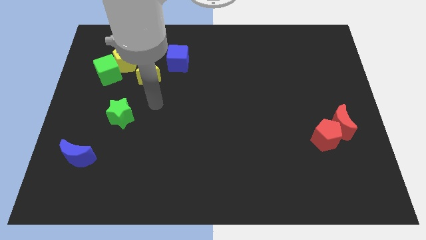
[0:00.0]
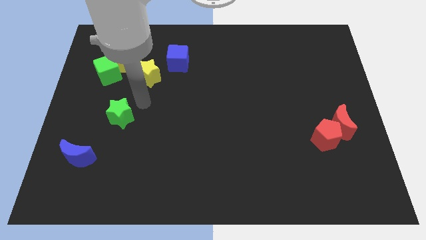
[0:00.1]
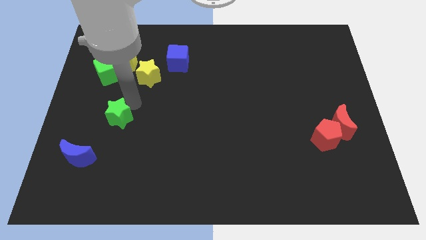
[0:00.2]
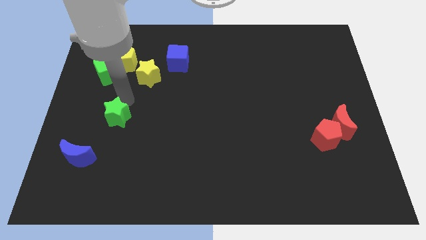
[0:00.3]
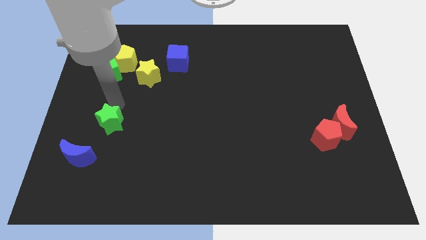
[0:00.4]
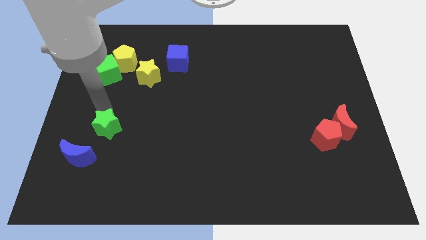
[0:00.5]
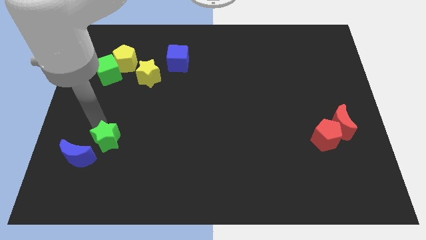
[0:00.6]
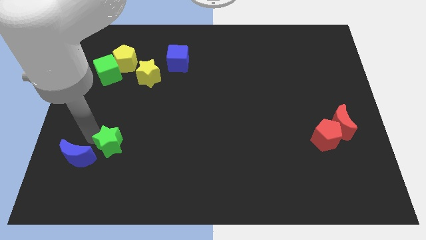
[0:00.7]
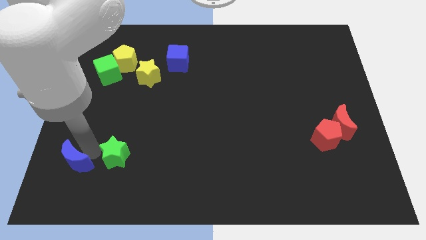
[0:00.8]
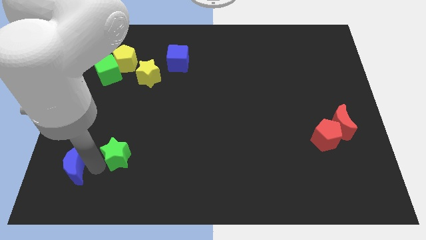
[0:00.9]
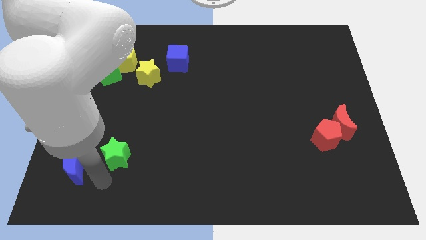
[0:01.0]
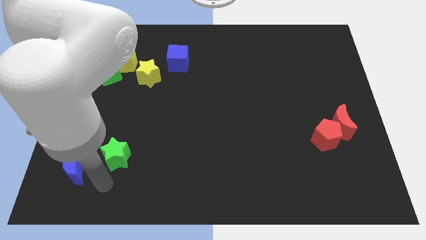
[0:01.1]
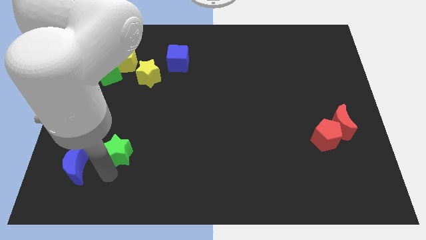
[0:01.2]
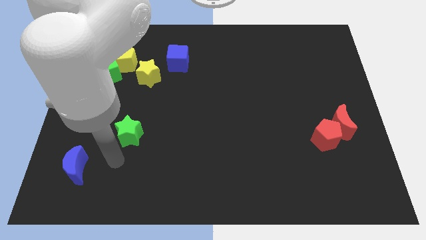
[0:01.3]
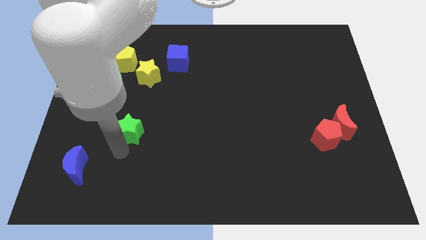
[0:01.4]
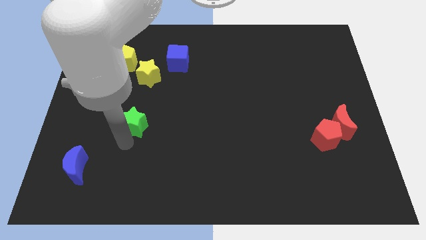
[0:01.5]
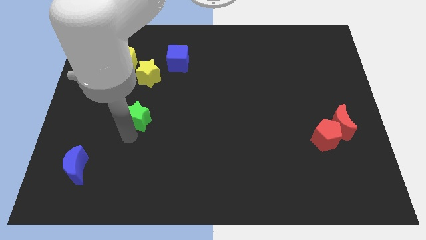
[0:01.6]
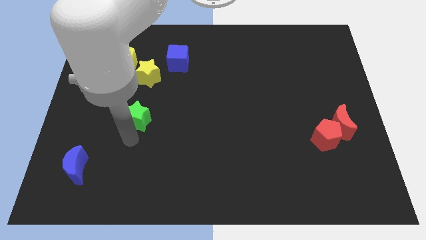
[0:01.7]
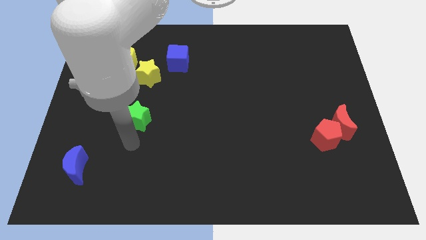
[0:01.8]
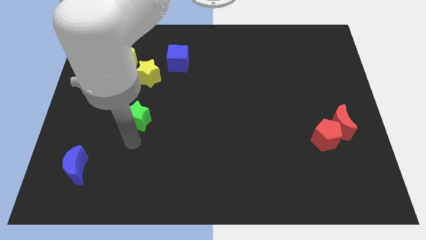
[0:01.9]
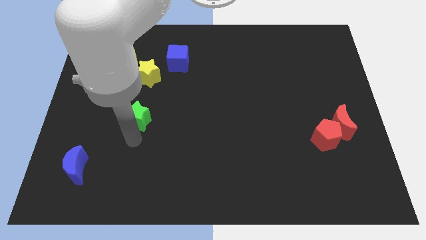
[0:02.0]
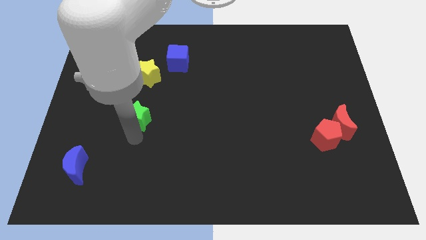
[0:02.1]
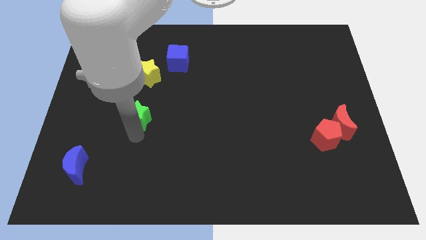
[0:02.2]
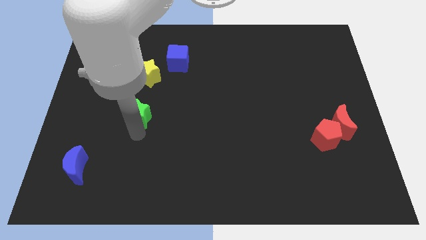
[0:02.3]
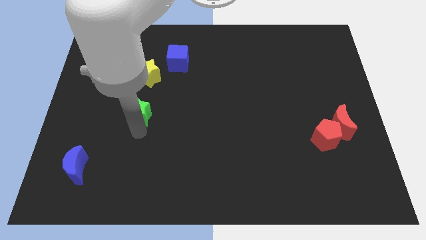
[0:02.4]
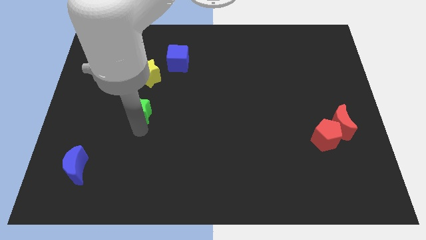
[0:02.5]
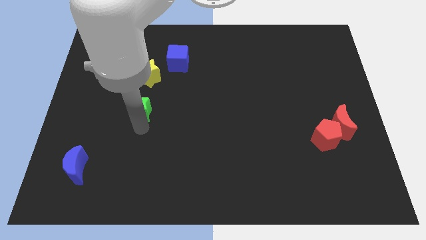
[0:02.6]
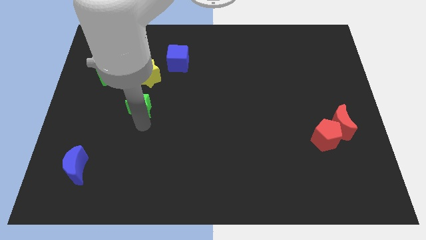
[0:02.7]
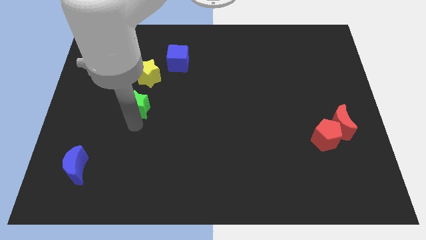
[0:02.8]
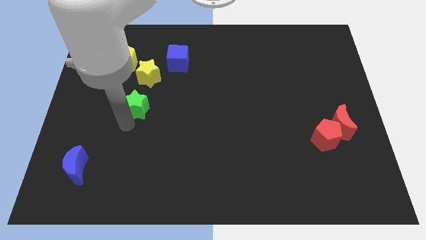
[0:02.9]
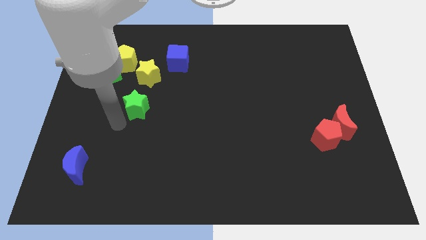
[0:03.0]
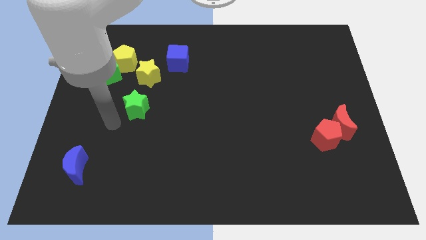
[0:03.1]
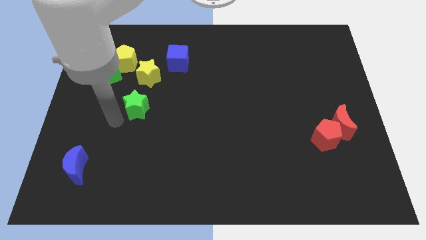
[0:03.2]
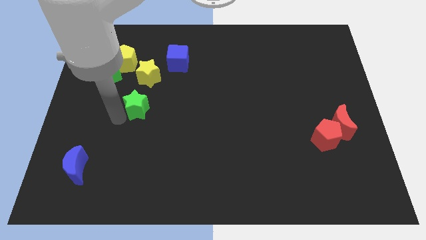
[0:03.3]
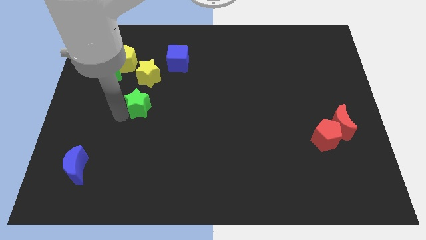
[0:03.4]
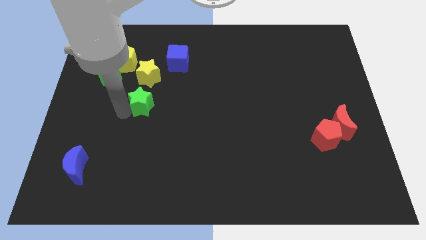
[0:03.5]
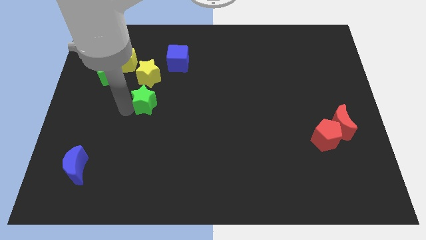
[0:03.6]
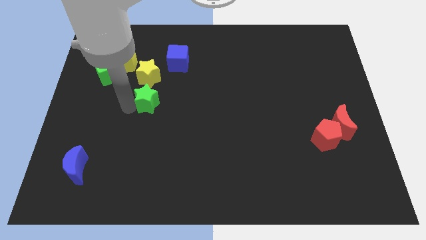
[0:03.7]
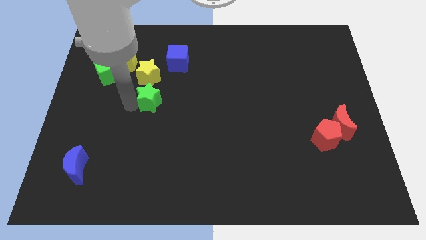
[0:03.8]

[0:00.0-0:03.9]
push the green star diagonally upwards and right a little

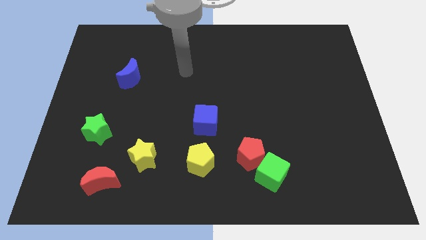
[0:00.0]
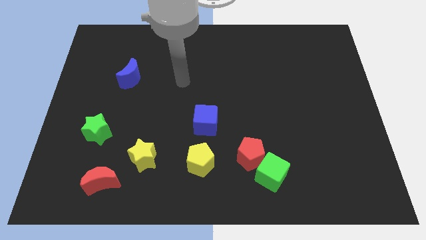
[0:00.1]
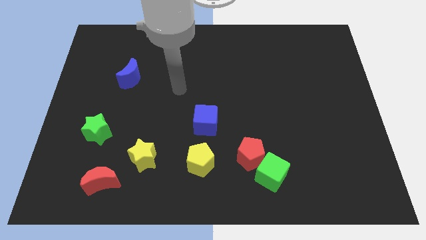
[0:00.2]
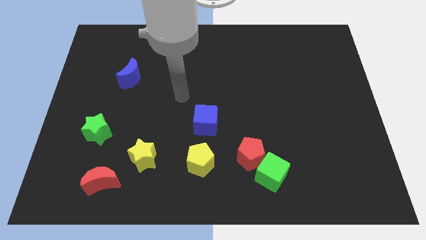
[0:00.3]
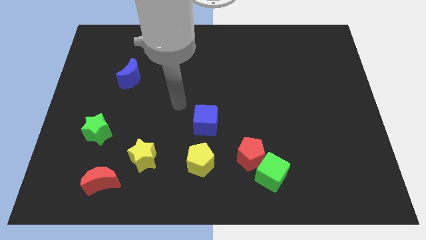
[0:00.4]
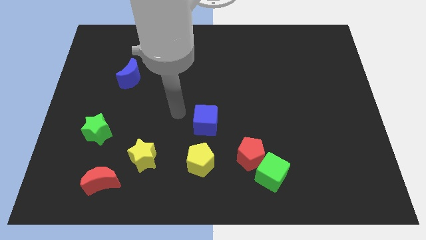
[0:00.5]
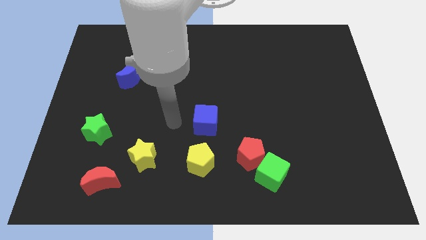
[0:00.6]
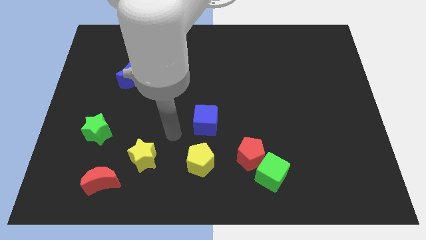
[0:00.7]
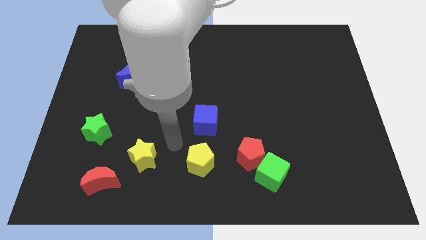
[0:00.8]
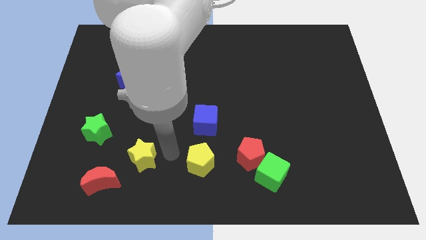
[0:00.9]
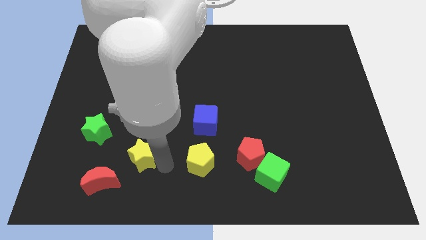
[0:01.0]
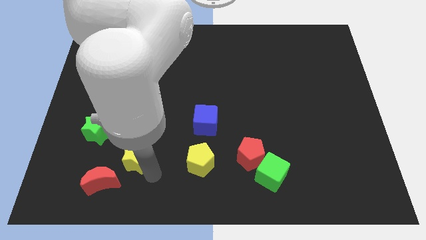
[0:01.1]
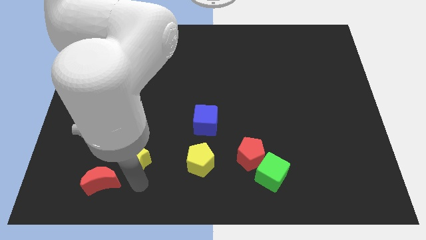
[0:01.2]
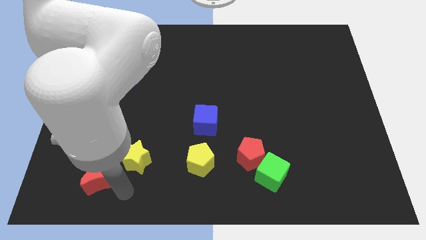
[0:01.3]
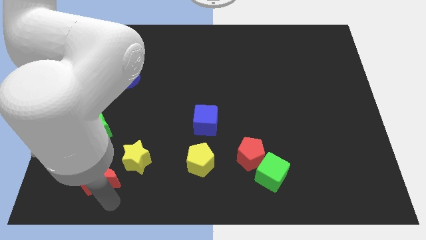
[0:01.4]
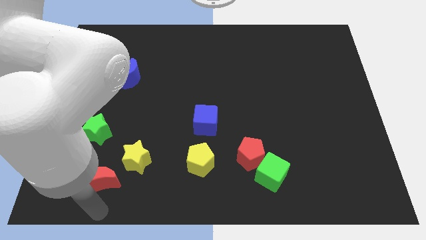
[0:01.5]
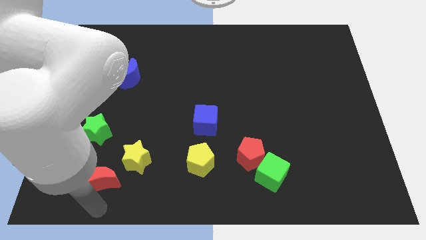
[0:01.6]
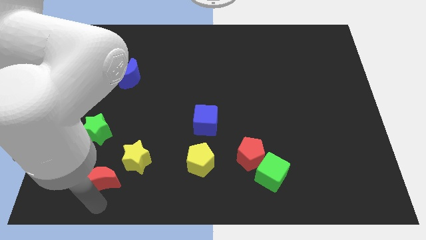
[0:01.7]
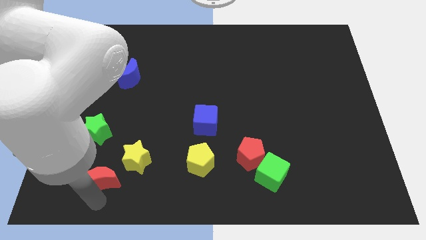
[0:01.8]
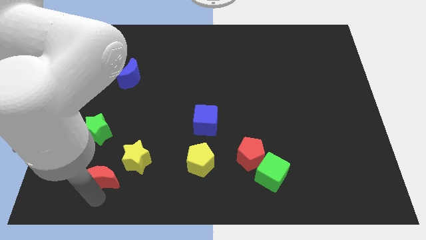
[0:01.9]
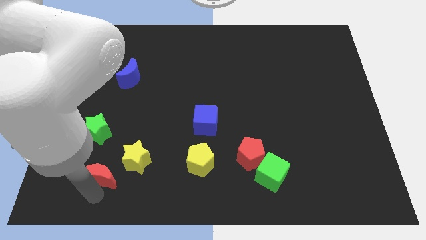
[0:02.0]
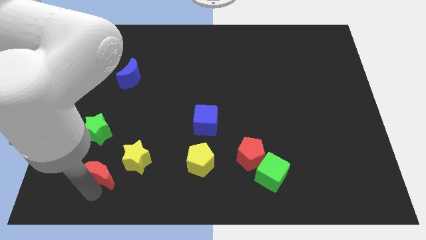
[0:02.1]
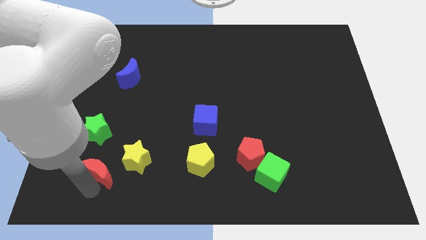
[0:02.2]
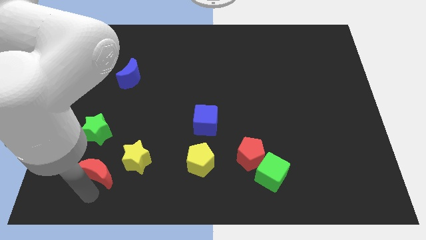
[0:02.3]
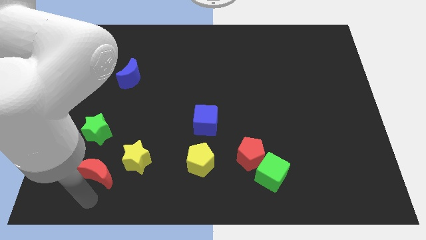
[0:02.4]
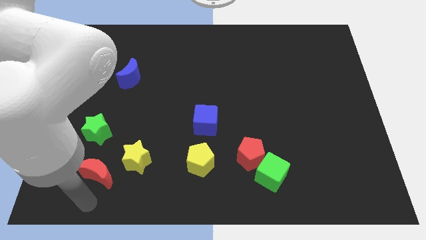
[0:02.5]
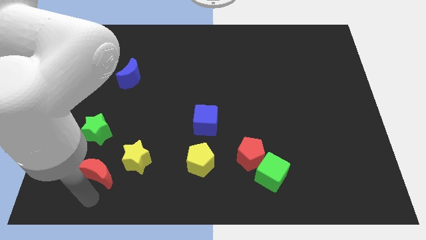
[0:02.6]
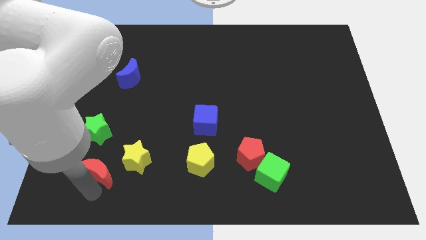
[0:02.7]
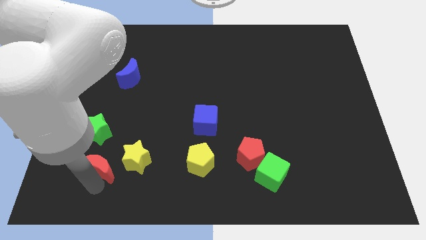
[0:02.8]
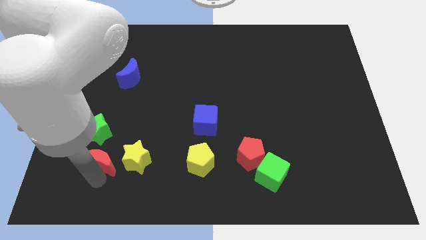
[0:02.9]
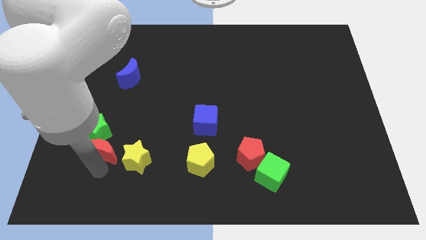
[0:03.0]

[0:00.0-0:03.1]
push the red moon slightly up

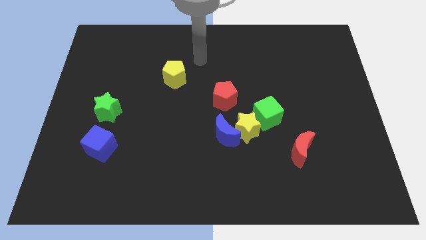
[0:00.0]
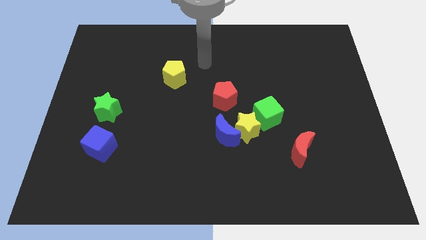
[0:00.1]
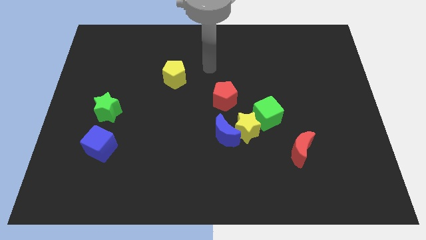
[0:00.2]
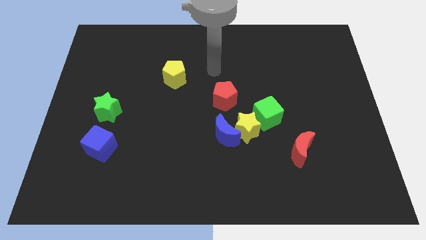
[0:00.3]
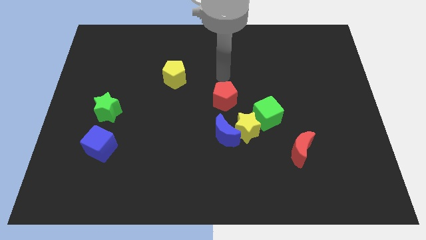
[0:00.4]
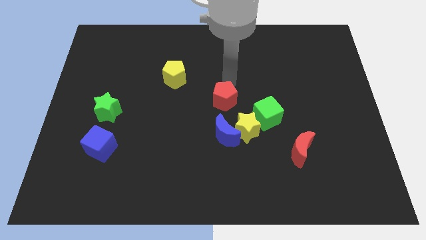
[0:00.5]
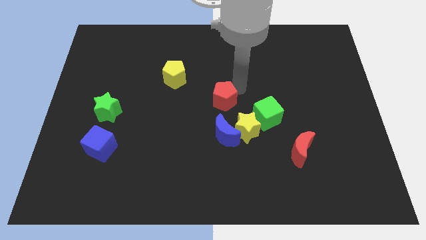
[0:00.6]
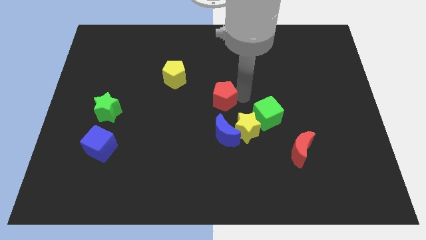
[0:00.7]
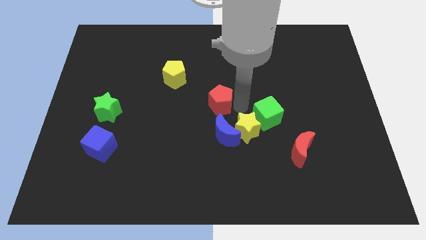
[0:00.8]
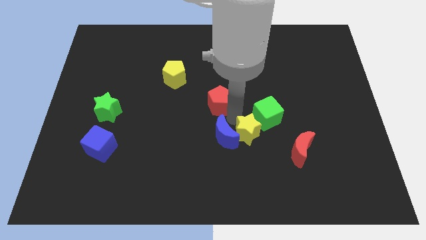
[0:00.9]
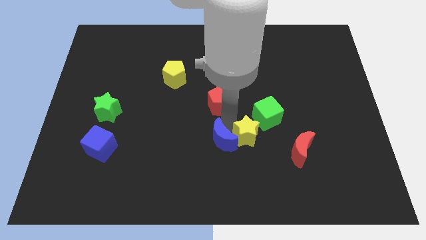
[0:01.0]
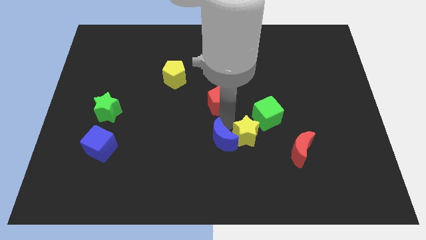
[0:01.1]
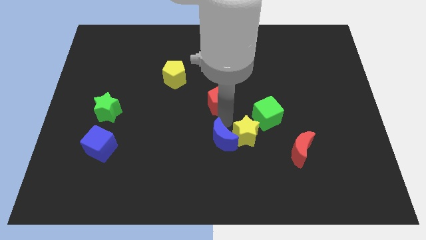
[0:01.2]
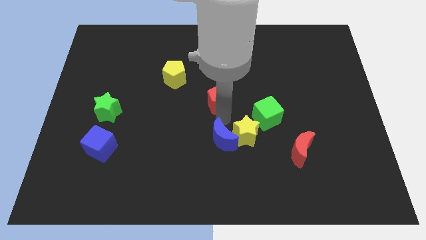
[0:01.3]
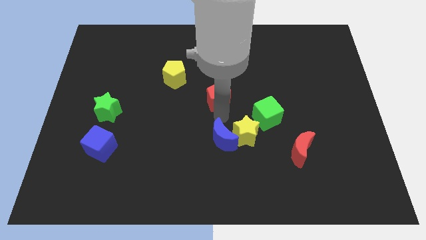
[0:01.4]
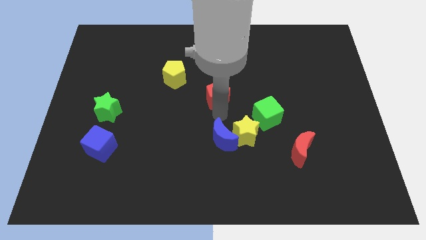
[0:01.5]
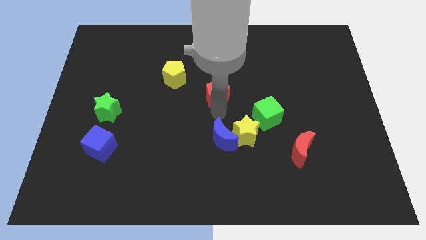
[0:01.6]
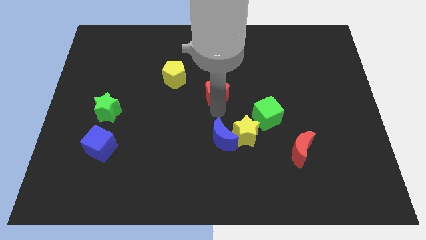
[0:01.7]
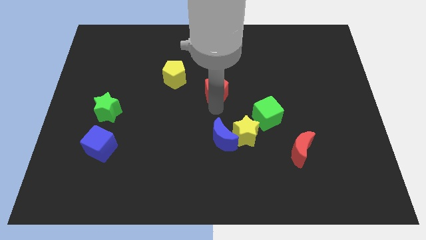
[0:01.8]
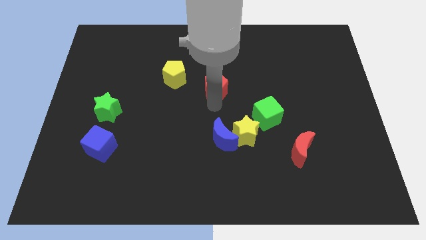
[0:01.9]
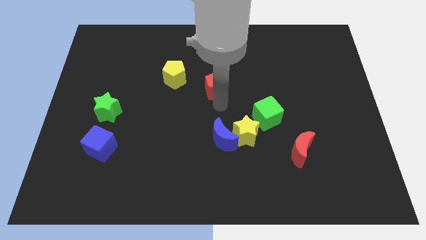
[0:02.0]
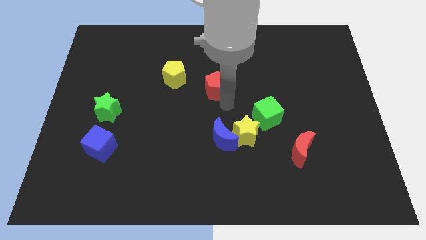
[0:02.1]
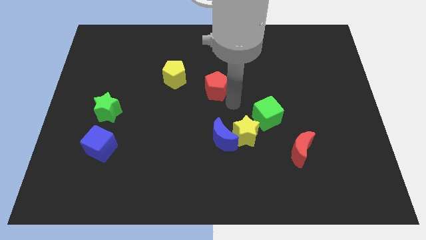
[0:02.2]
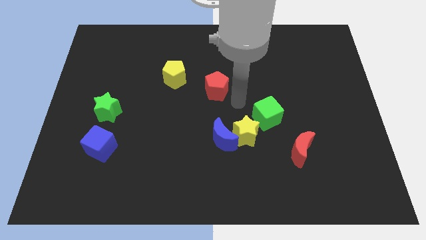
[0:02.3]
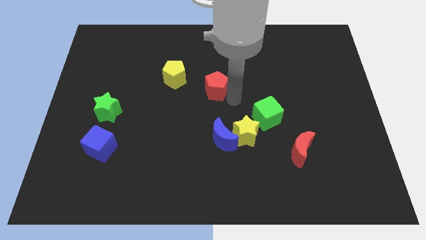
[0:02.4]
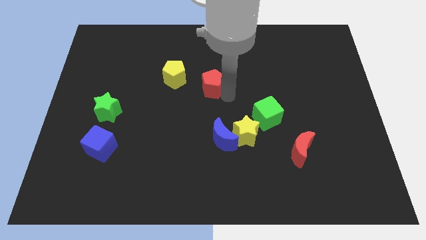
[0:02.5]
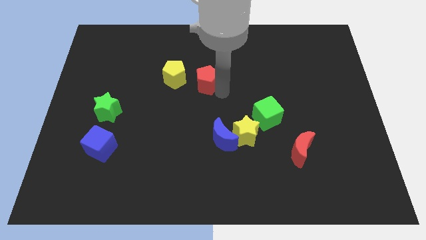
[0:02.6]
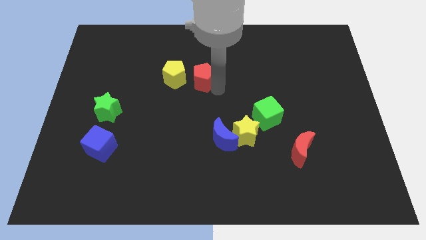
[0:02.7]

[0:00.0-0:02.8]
push the red pentagon a bit diagonally upwards and left
